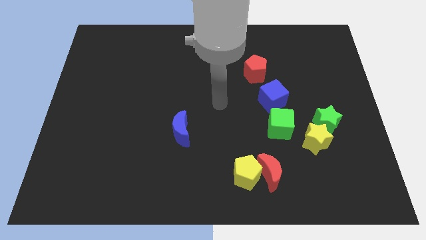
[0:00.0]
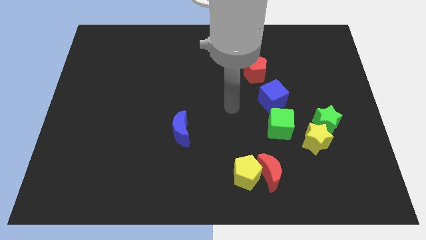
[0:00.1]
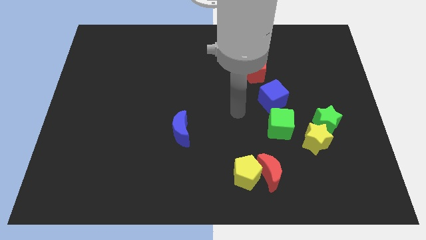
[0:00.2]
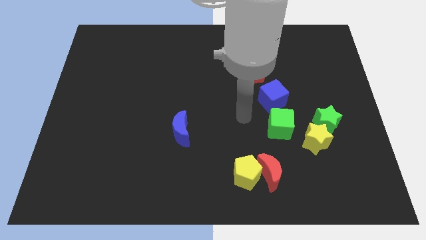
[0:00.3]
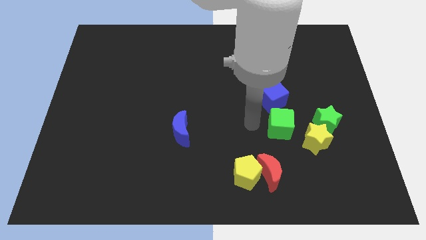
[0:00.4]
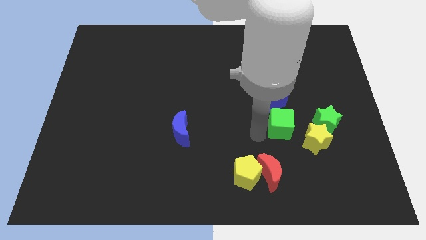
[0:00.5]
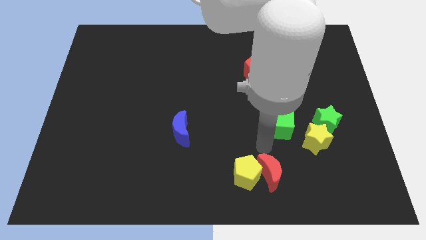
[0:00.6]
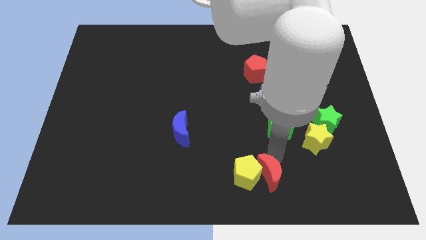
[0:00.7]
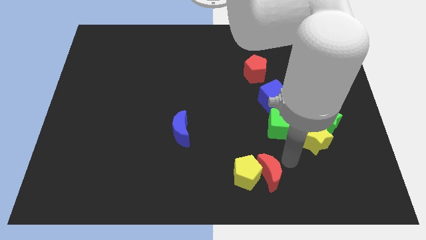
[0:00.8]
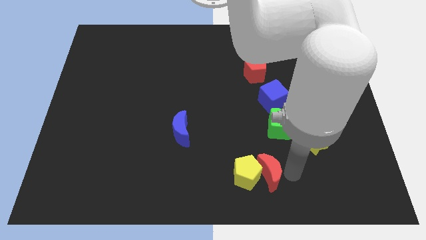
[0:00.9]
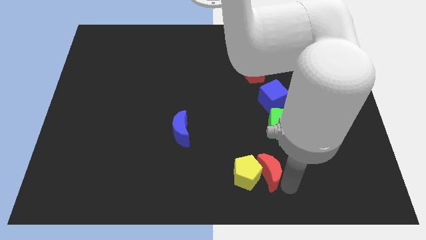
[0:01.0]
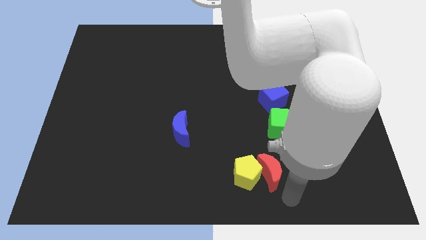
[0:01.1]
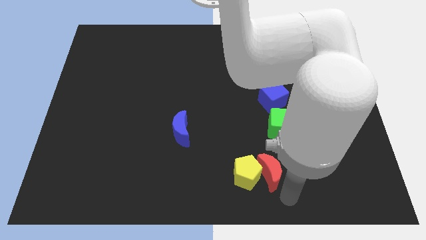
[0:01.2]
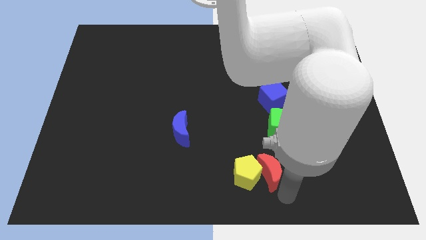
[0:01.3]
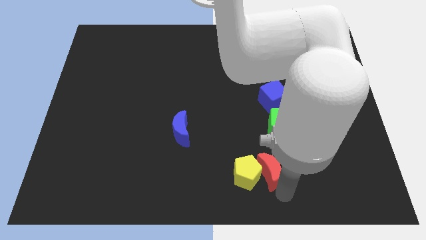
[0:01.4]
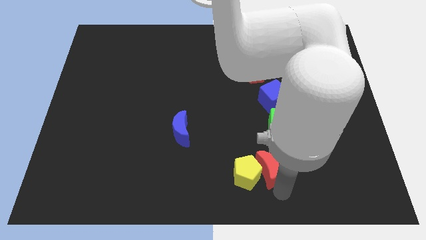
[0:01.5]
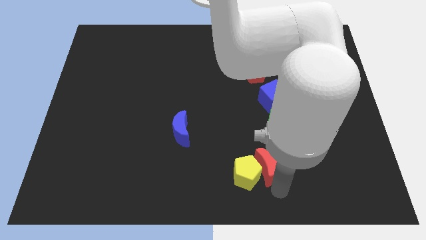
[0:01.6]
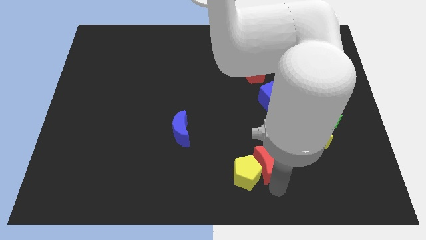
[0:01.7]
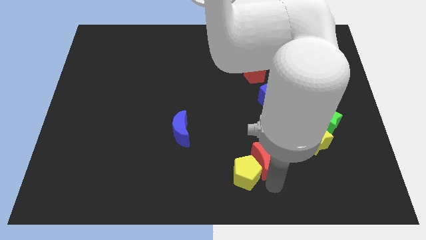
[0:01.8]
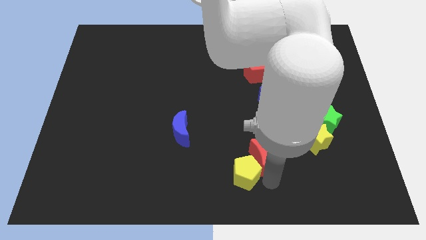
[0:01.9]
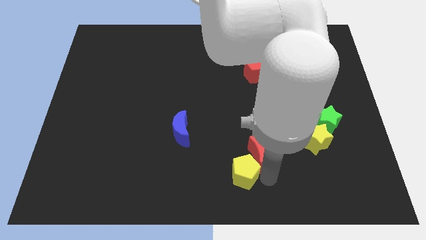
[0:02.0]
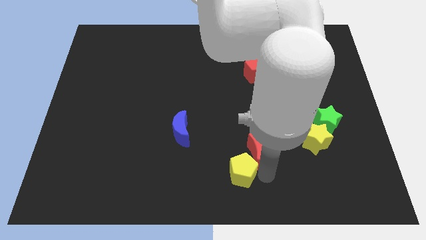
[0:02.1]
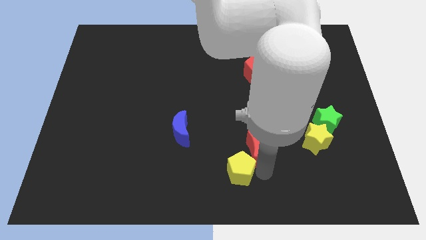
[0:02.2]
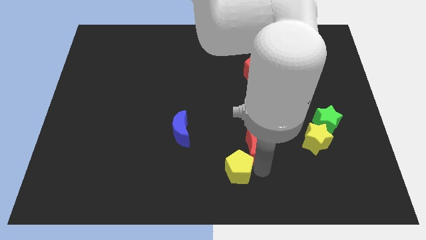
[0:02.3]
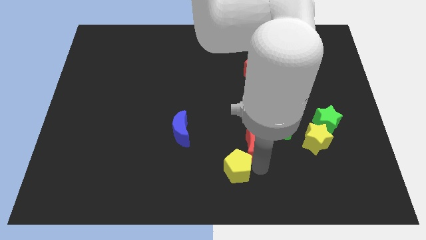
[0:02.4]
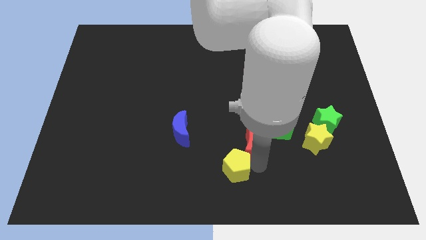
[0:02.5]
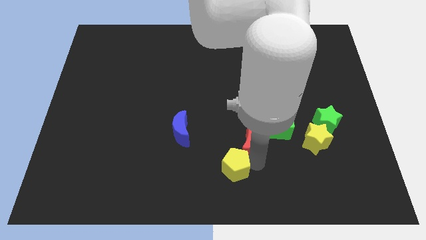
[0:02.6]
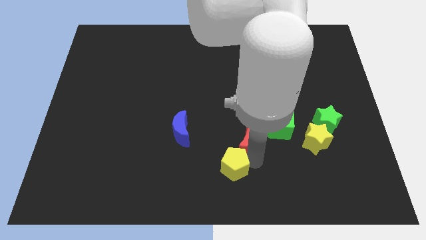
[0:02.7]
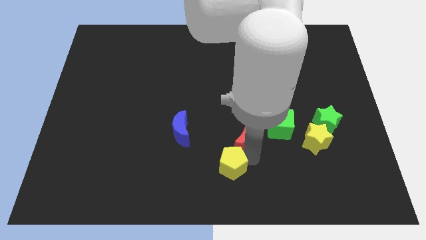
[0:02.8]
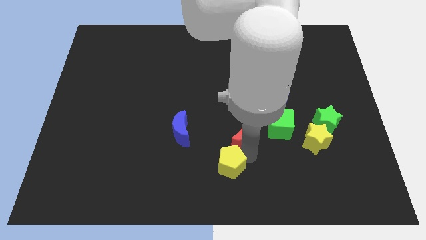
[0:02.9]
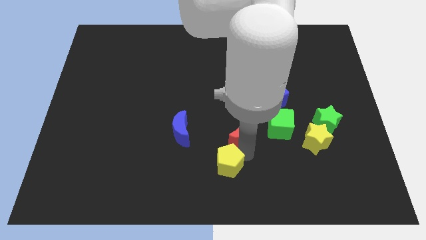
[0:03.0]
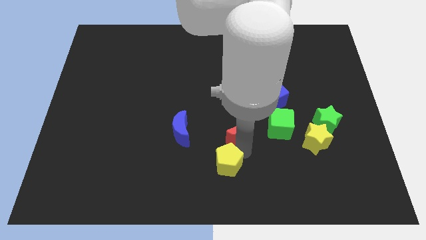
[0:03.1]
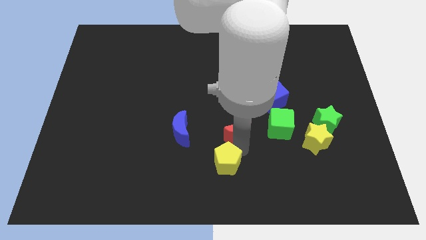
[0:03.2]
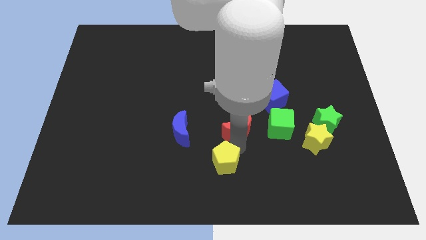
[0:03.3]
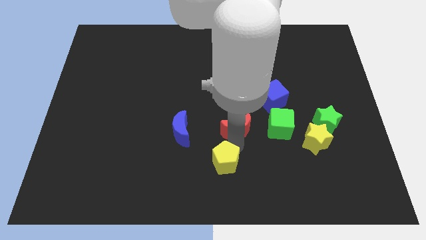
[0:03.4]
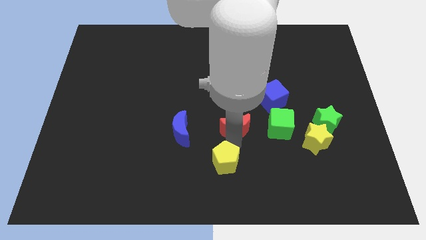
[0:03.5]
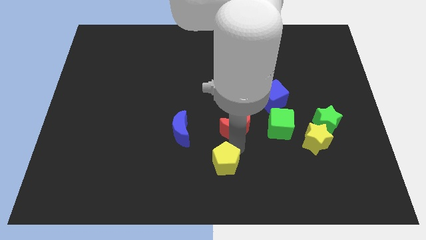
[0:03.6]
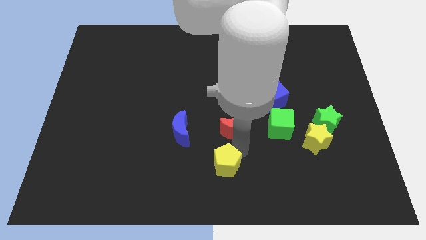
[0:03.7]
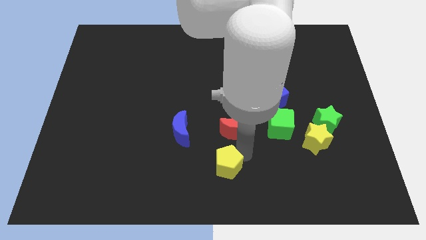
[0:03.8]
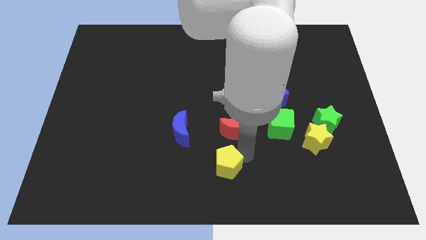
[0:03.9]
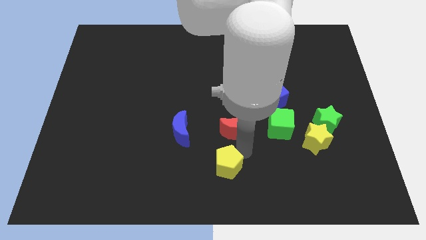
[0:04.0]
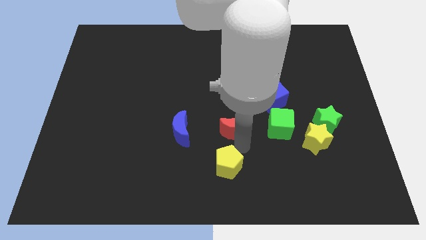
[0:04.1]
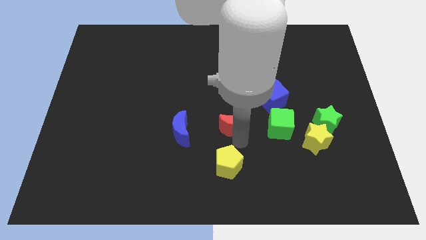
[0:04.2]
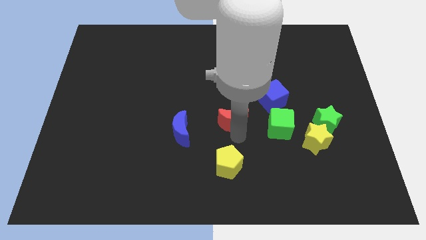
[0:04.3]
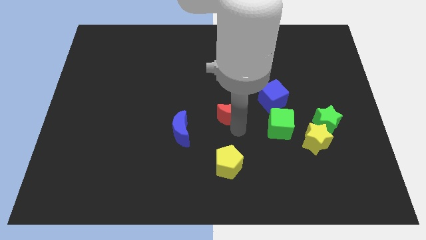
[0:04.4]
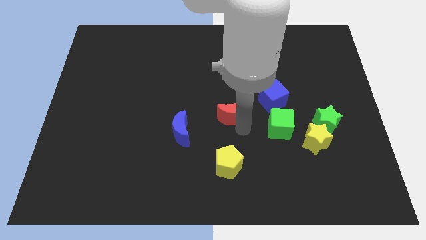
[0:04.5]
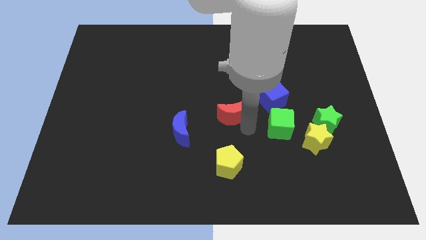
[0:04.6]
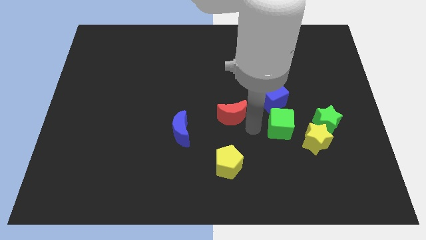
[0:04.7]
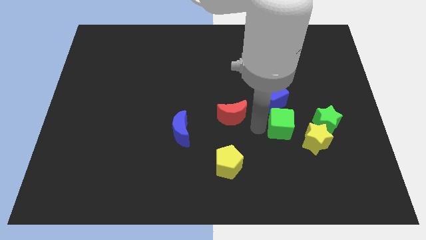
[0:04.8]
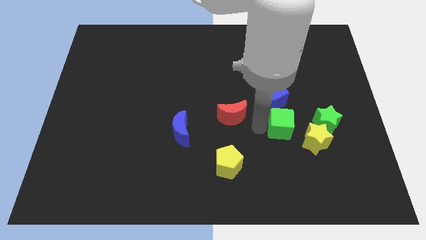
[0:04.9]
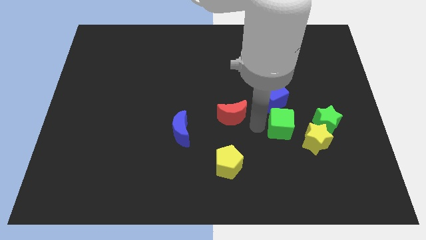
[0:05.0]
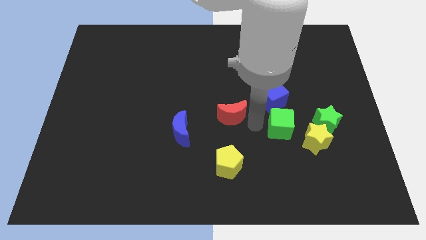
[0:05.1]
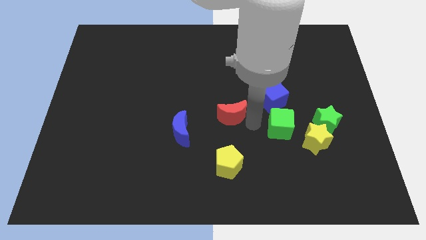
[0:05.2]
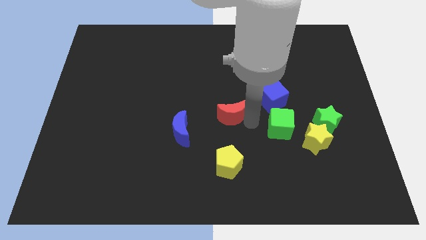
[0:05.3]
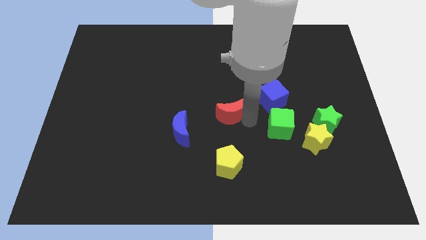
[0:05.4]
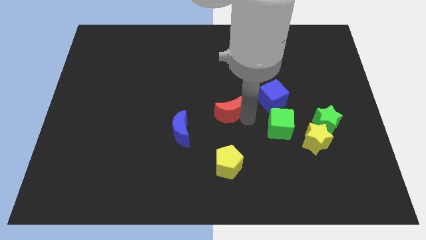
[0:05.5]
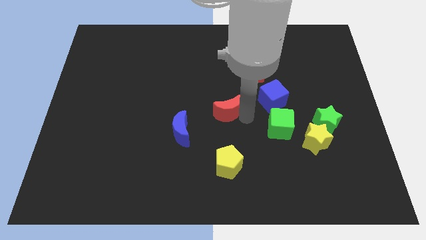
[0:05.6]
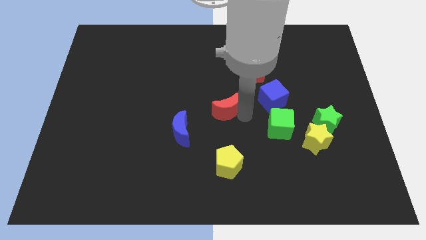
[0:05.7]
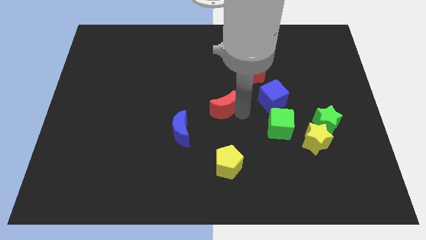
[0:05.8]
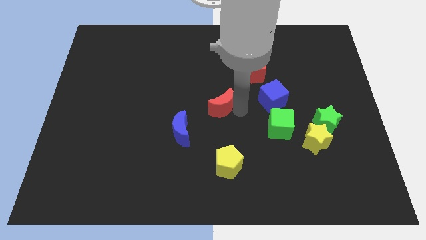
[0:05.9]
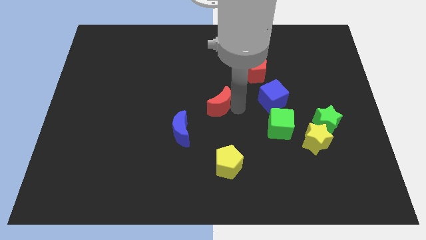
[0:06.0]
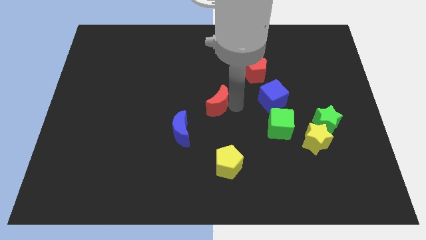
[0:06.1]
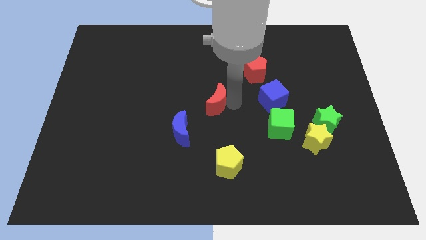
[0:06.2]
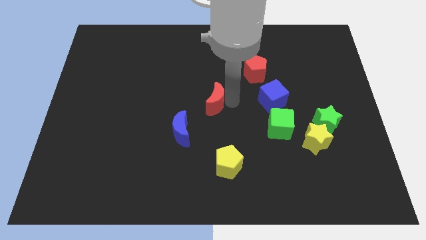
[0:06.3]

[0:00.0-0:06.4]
move the red moon diagonally up and to the left

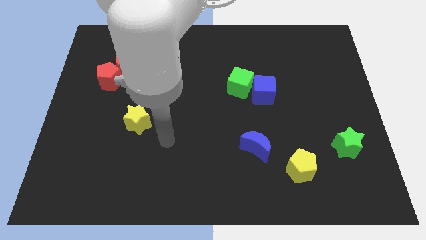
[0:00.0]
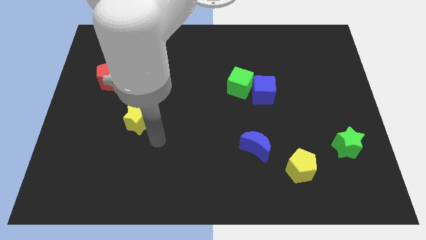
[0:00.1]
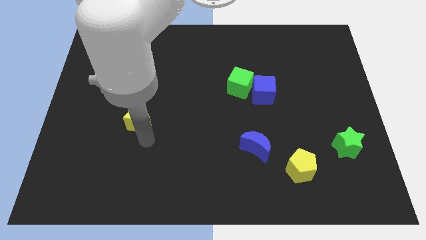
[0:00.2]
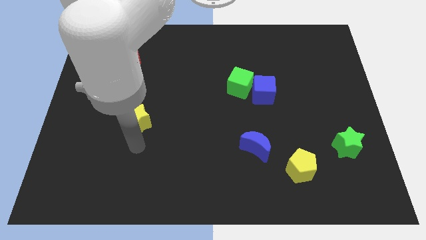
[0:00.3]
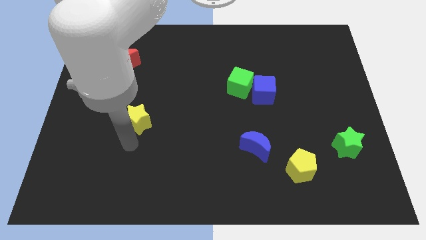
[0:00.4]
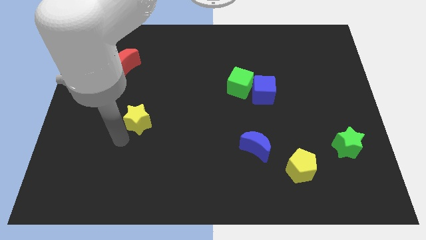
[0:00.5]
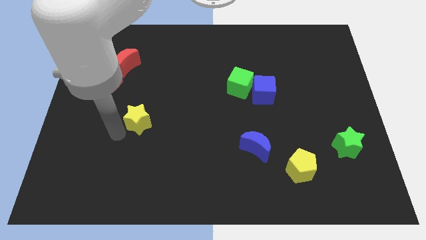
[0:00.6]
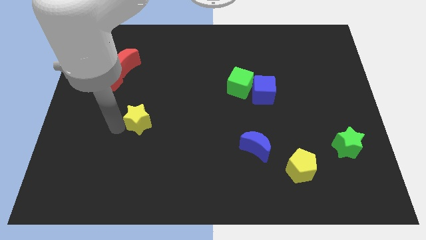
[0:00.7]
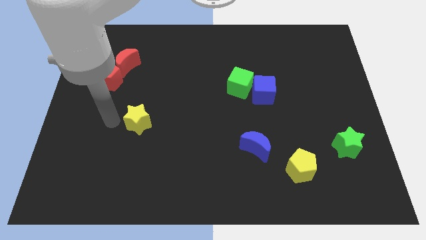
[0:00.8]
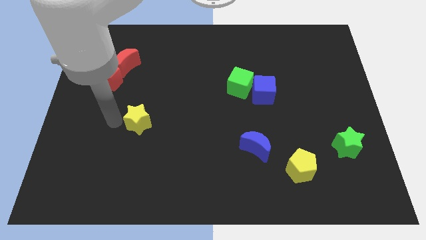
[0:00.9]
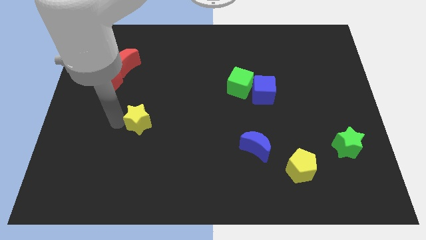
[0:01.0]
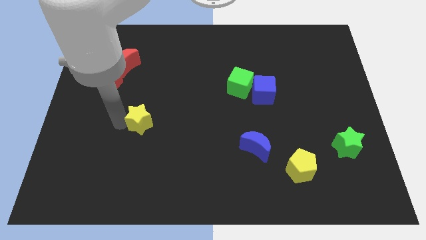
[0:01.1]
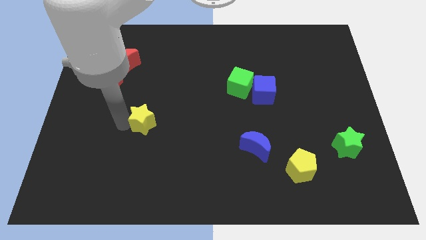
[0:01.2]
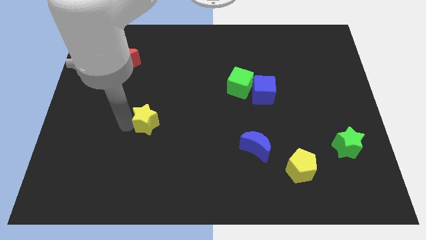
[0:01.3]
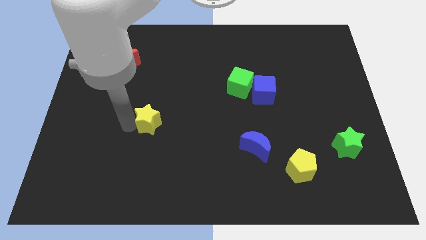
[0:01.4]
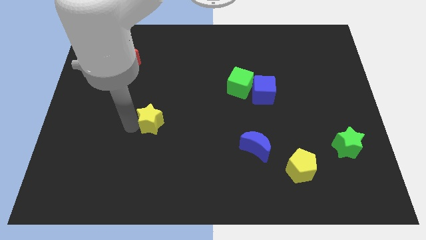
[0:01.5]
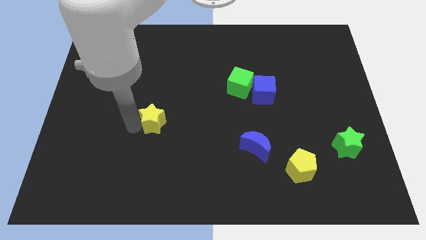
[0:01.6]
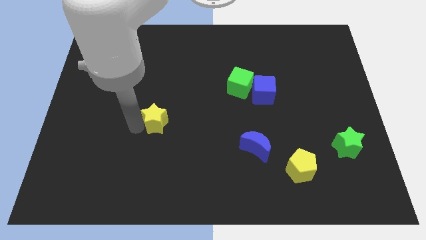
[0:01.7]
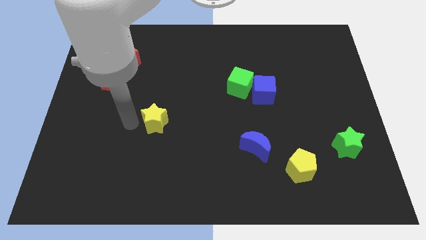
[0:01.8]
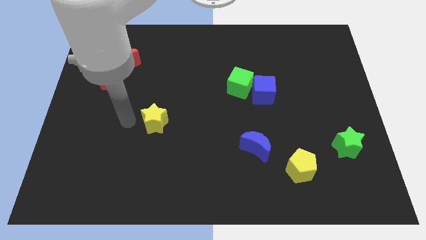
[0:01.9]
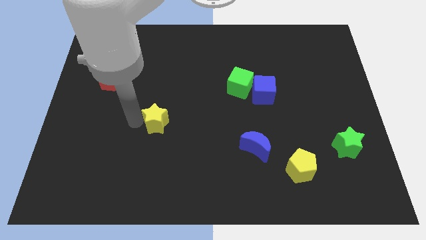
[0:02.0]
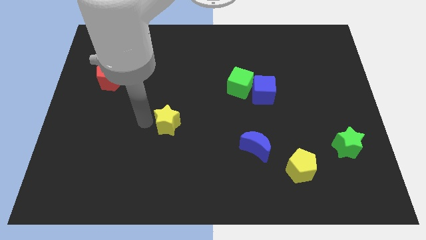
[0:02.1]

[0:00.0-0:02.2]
slightly move the yellow star to the right
